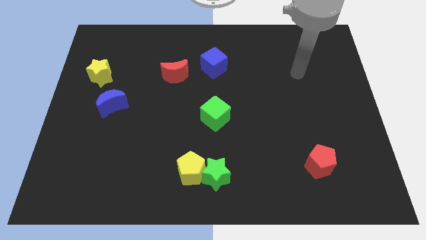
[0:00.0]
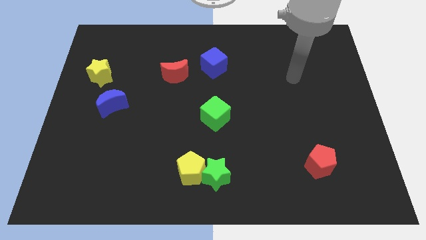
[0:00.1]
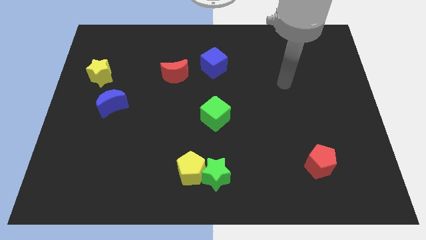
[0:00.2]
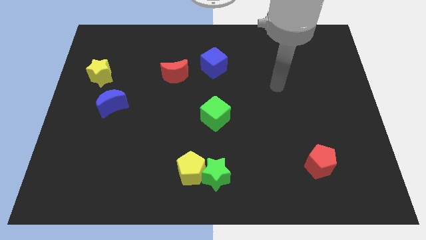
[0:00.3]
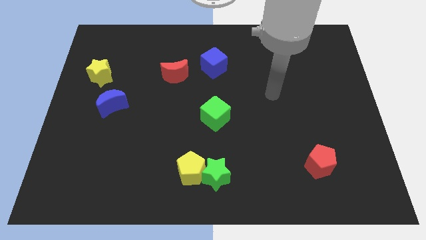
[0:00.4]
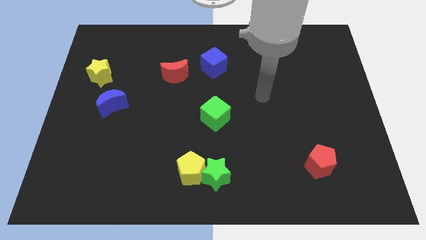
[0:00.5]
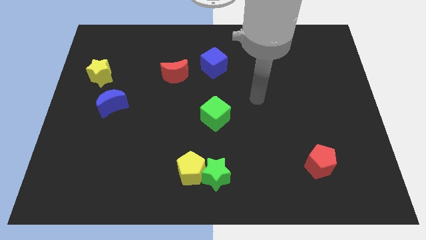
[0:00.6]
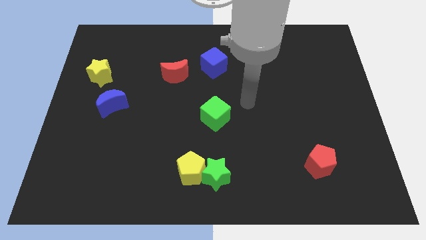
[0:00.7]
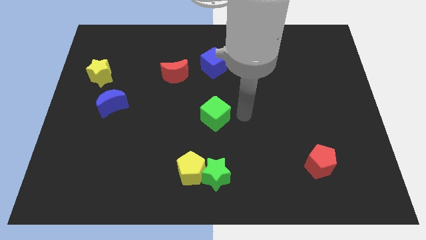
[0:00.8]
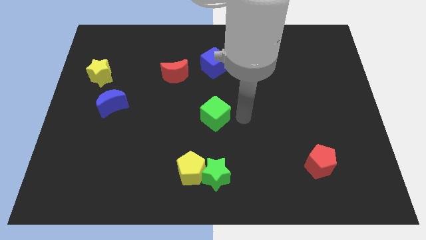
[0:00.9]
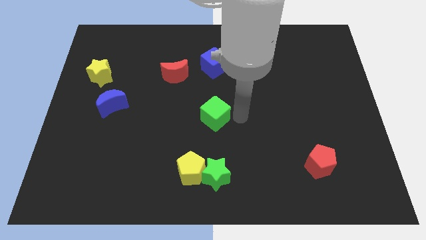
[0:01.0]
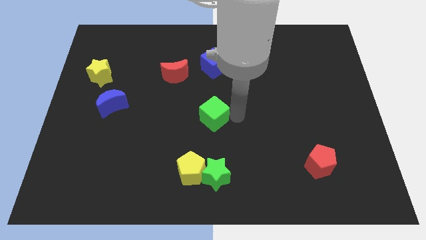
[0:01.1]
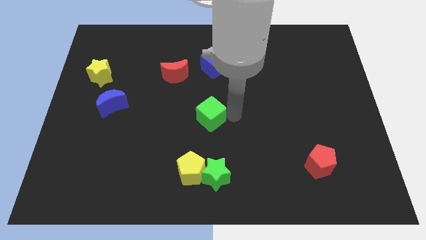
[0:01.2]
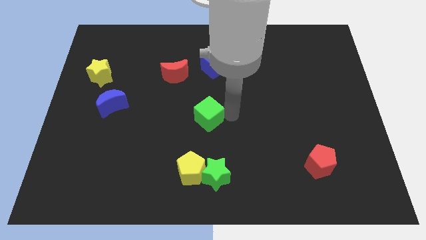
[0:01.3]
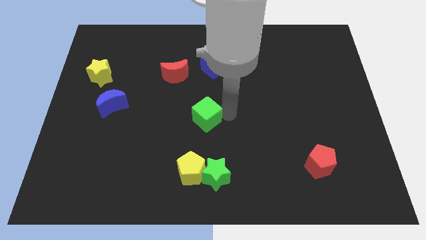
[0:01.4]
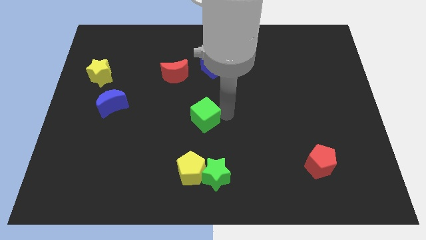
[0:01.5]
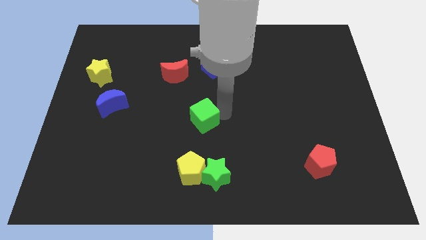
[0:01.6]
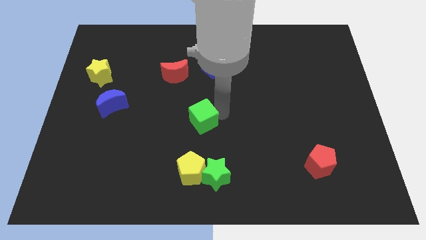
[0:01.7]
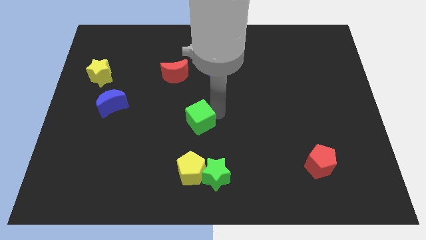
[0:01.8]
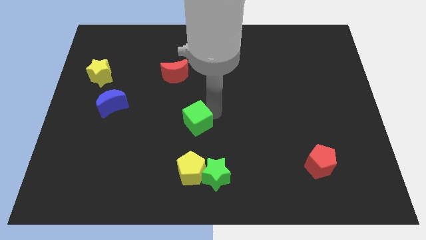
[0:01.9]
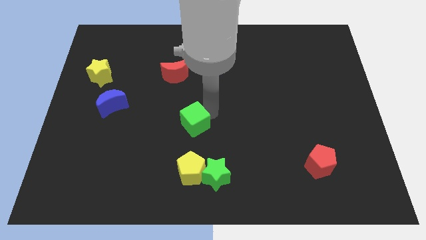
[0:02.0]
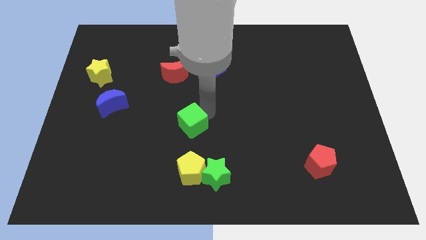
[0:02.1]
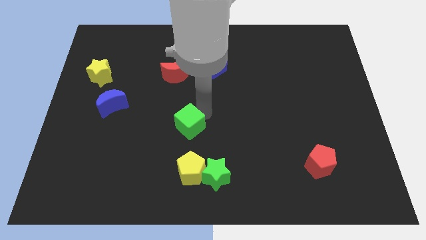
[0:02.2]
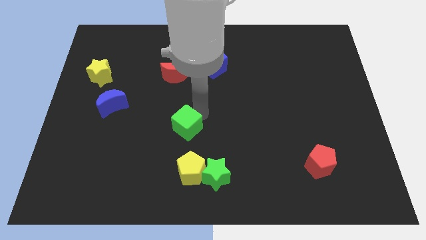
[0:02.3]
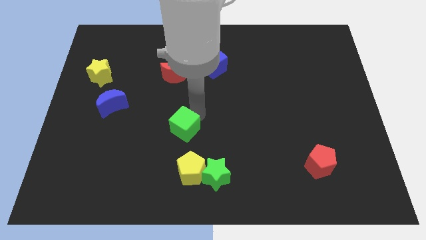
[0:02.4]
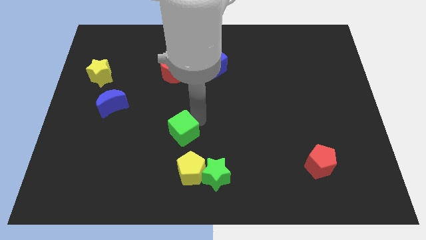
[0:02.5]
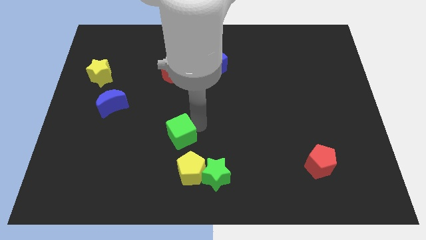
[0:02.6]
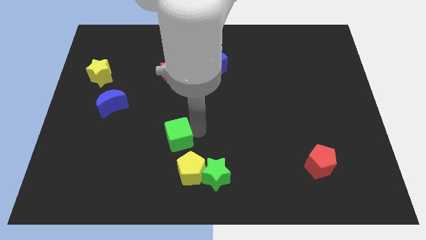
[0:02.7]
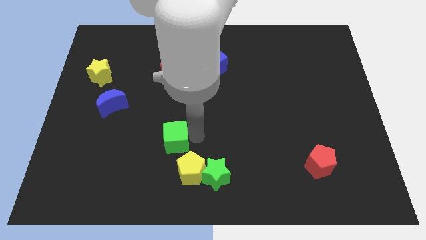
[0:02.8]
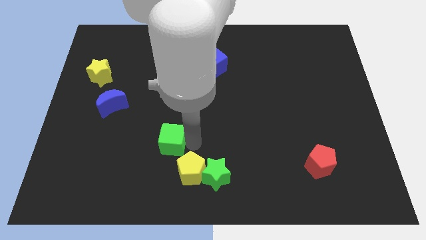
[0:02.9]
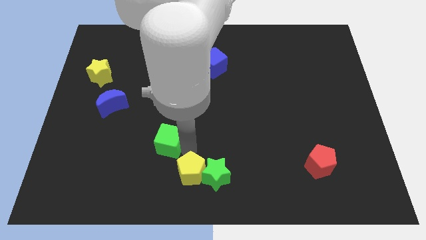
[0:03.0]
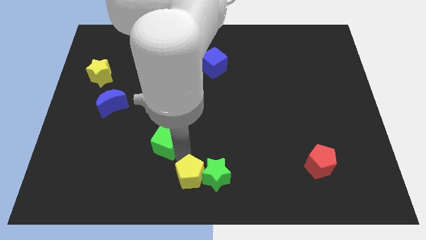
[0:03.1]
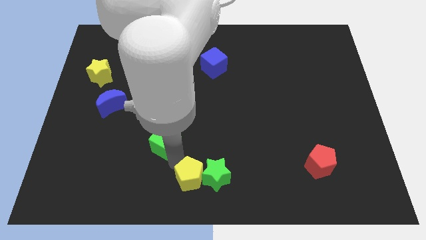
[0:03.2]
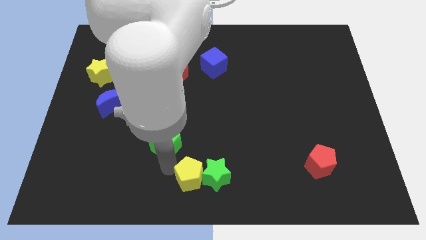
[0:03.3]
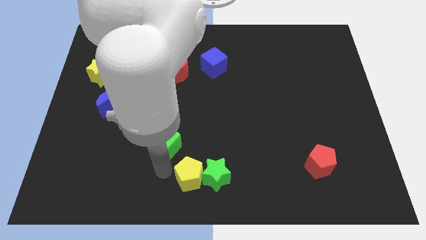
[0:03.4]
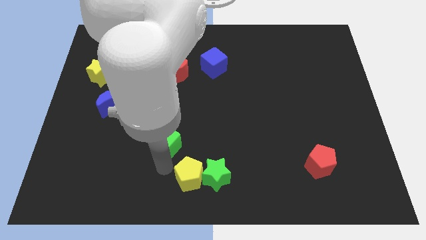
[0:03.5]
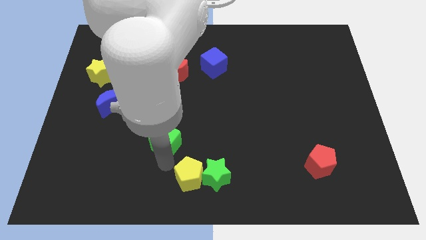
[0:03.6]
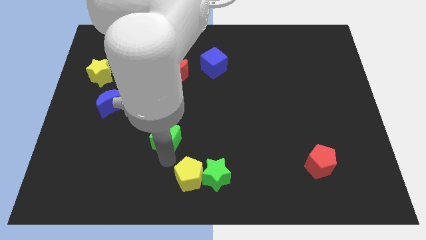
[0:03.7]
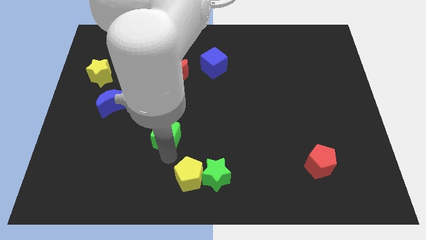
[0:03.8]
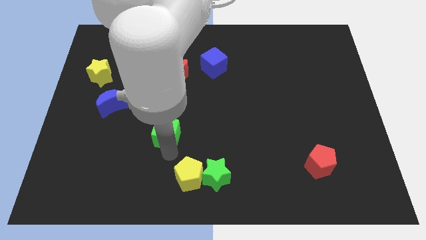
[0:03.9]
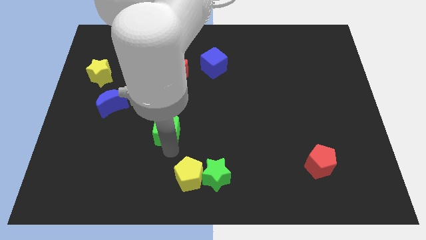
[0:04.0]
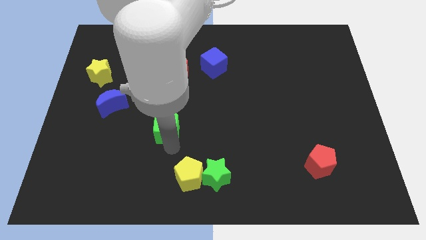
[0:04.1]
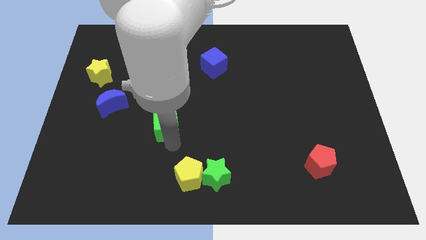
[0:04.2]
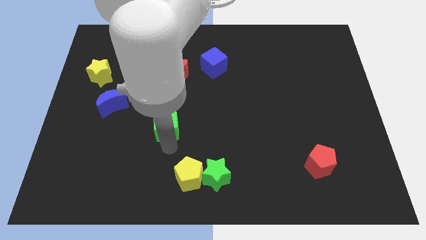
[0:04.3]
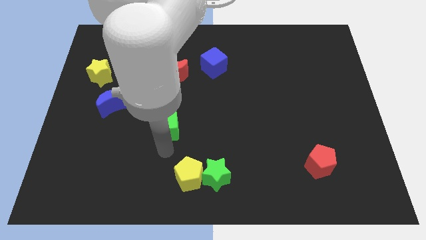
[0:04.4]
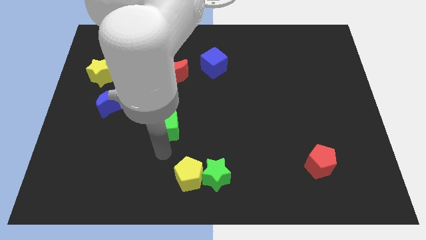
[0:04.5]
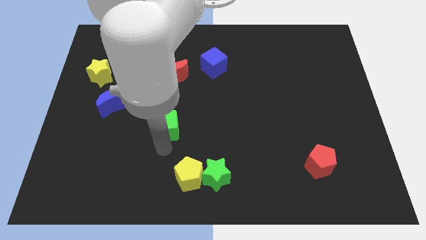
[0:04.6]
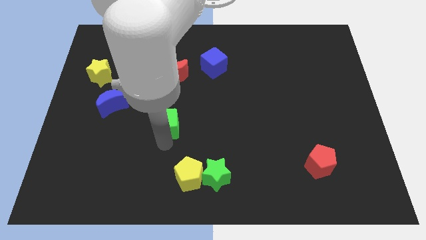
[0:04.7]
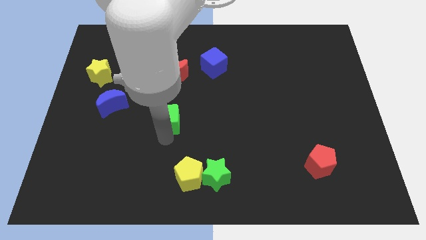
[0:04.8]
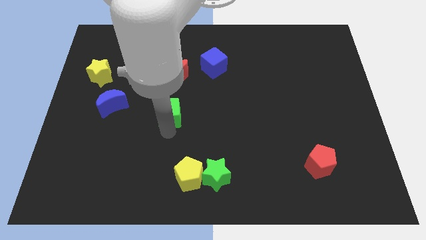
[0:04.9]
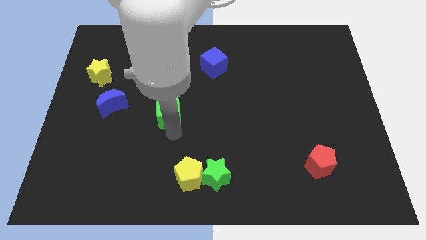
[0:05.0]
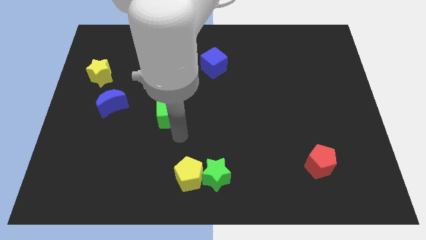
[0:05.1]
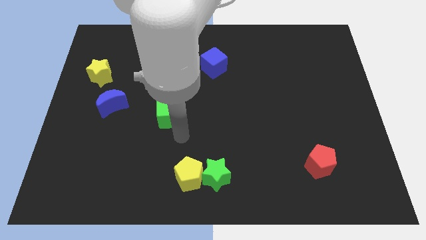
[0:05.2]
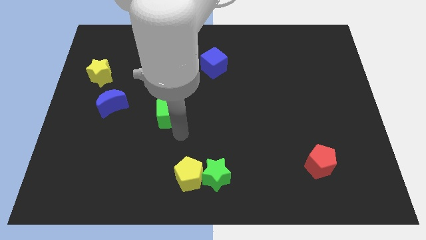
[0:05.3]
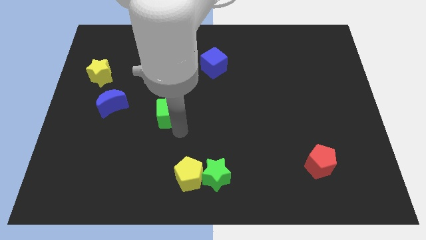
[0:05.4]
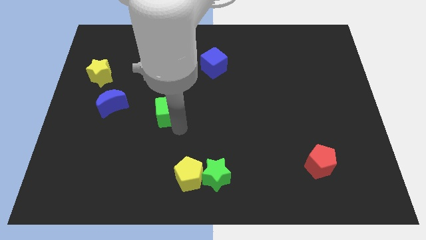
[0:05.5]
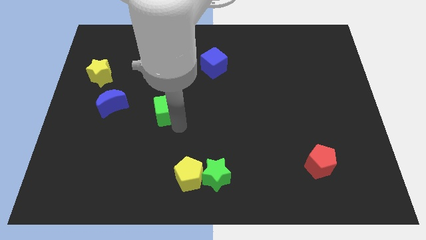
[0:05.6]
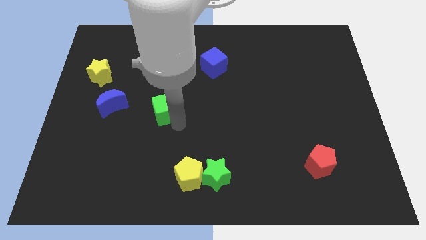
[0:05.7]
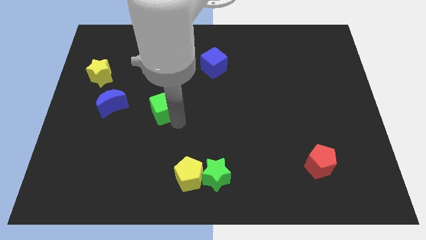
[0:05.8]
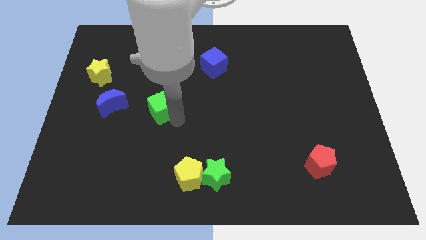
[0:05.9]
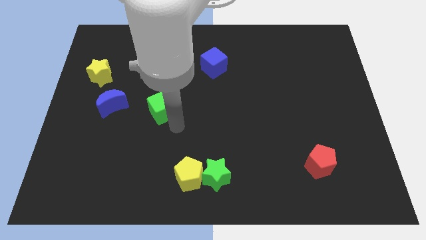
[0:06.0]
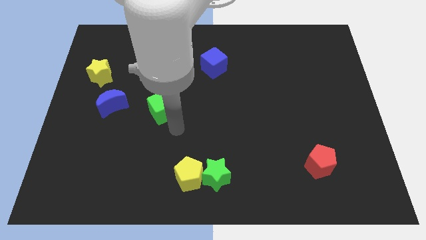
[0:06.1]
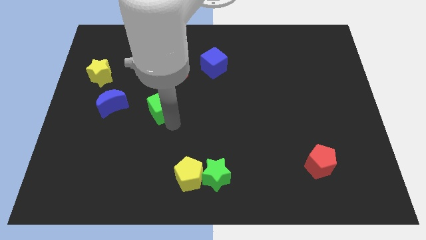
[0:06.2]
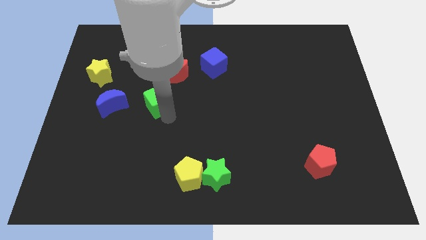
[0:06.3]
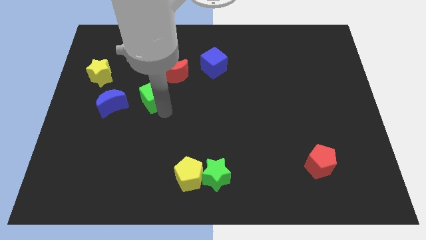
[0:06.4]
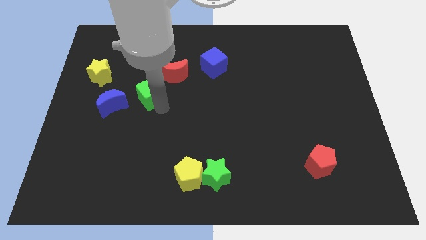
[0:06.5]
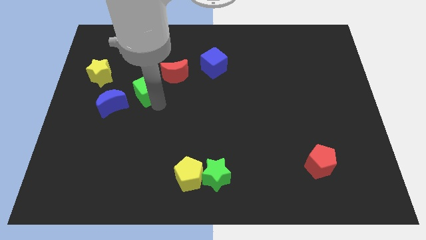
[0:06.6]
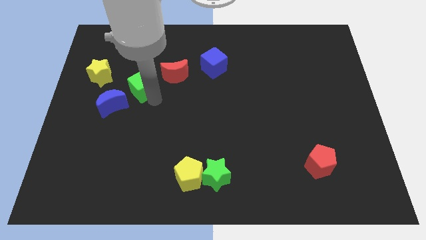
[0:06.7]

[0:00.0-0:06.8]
push the green cube to the left of the red moon
